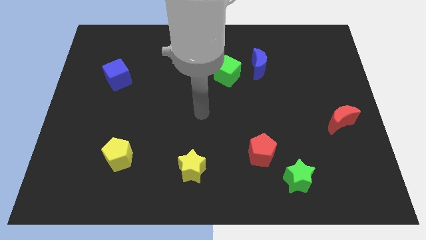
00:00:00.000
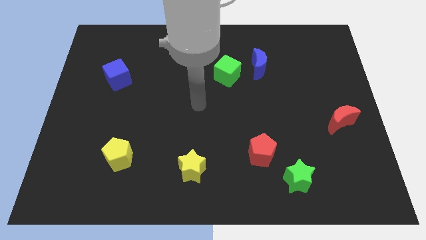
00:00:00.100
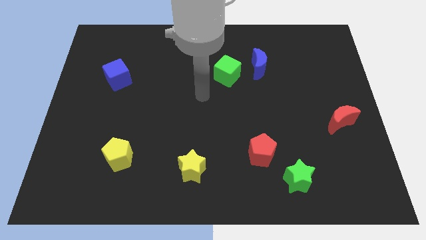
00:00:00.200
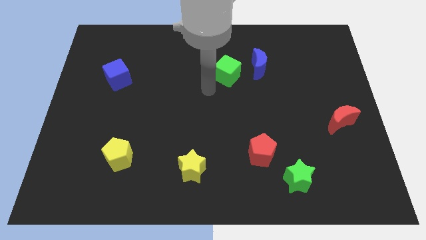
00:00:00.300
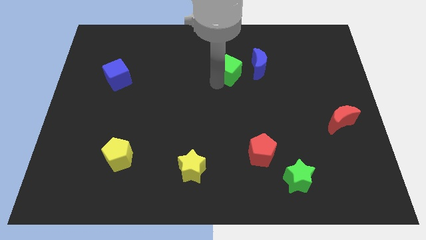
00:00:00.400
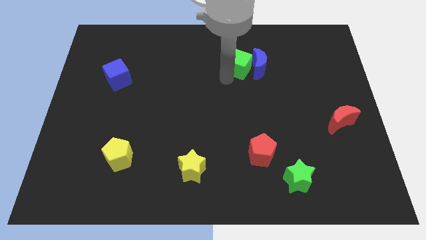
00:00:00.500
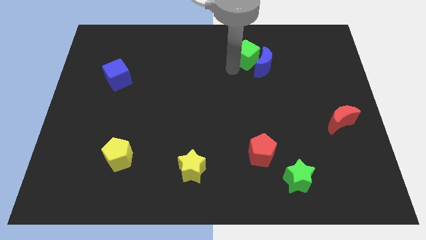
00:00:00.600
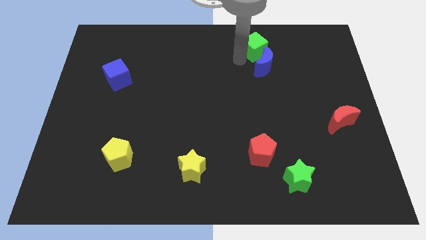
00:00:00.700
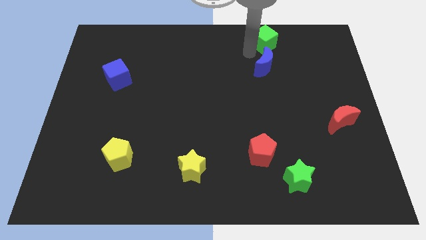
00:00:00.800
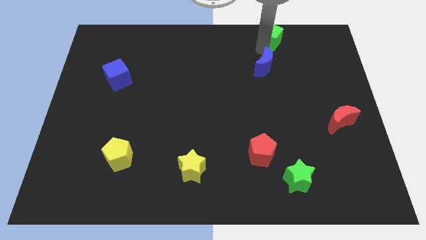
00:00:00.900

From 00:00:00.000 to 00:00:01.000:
move the blue moon away from the green cube

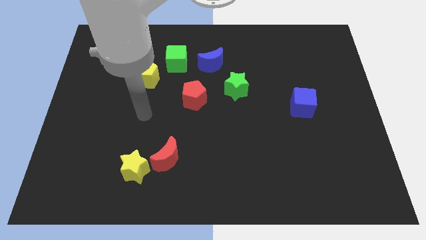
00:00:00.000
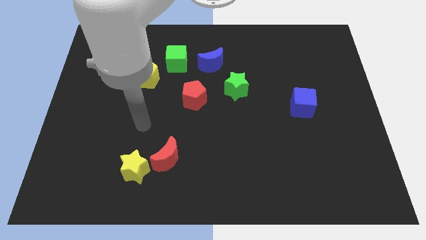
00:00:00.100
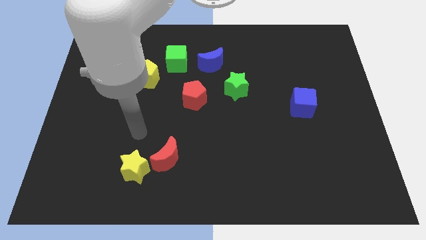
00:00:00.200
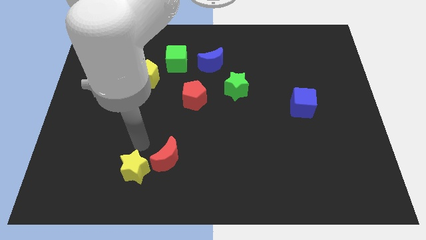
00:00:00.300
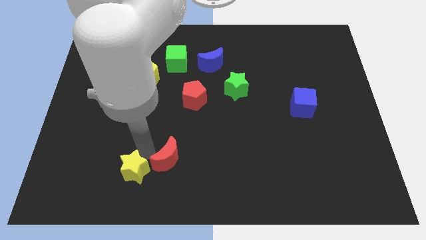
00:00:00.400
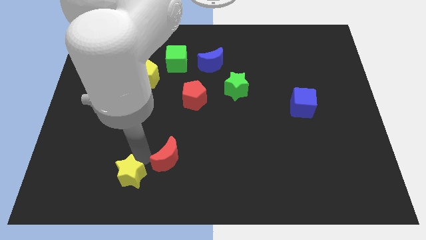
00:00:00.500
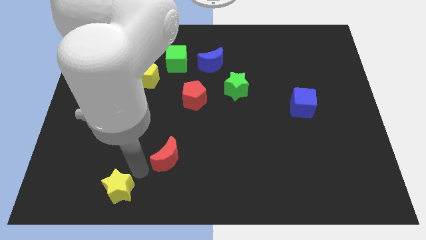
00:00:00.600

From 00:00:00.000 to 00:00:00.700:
pull the red moon apart from the yellow star

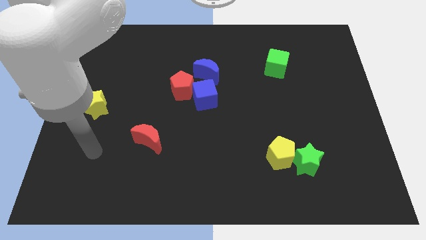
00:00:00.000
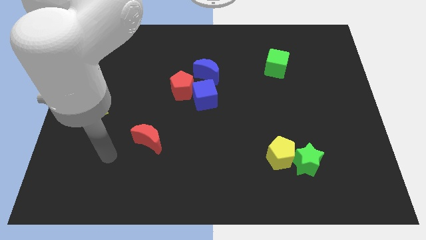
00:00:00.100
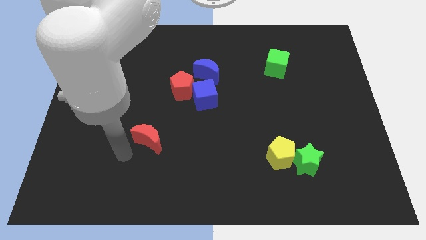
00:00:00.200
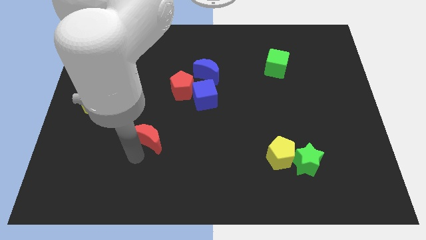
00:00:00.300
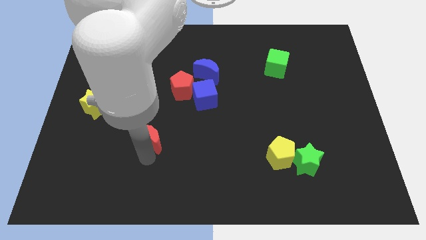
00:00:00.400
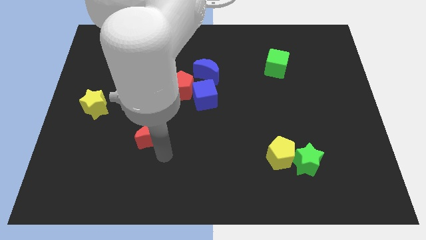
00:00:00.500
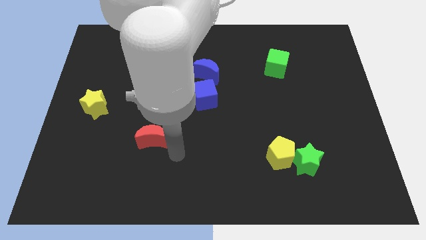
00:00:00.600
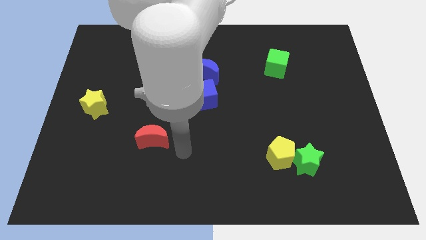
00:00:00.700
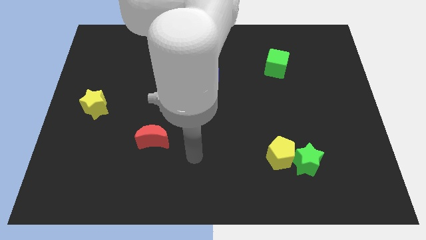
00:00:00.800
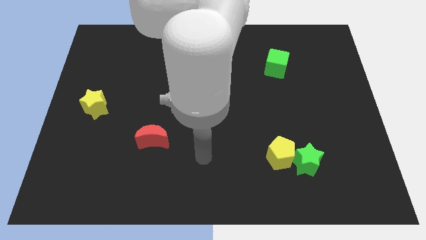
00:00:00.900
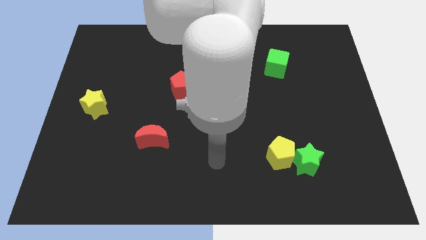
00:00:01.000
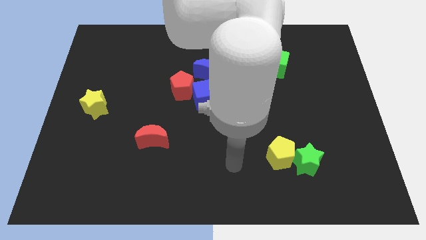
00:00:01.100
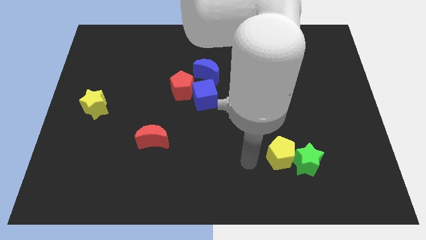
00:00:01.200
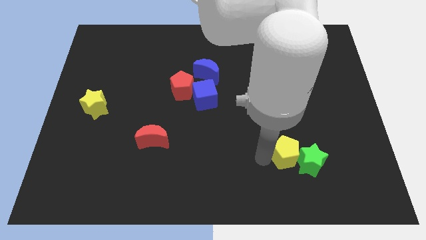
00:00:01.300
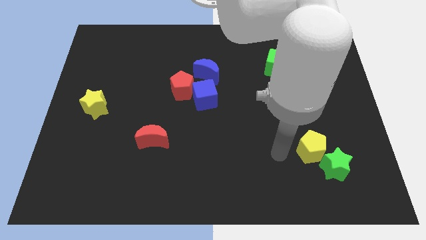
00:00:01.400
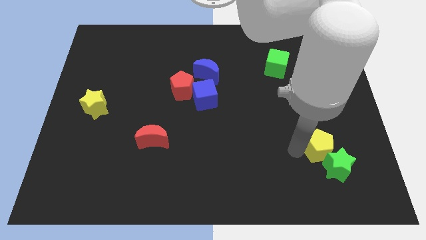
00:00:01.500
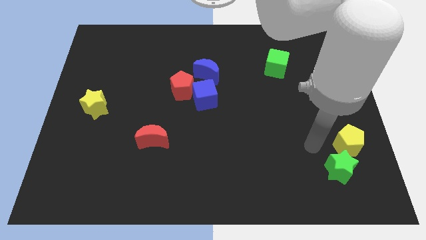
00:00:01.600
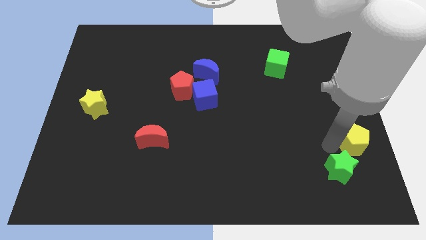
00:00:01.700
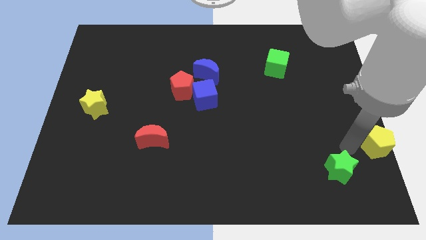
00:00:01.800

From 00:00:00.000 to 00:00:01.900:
move the green star away from the yellow pentagon

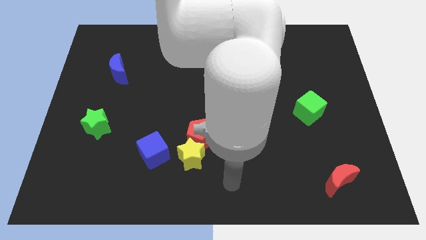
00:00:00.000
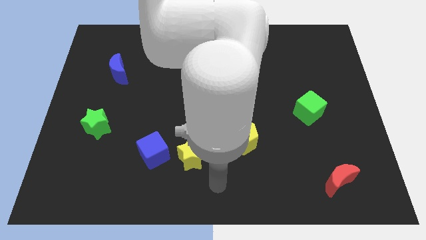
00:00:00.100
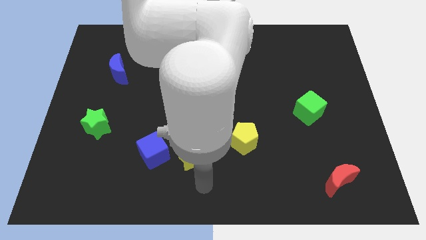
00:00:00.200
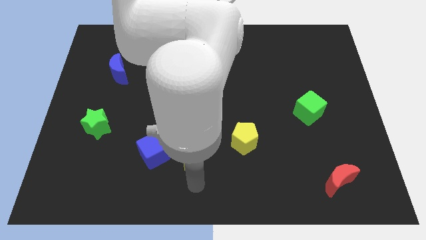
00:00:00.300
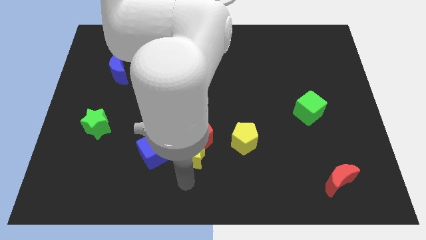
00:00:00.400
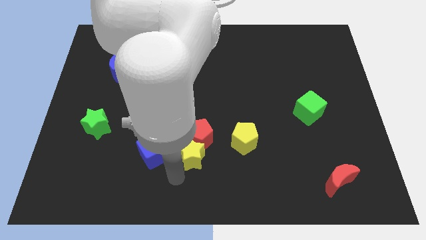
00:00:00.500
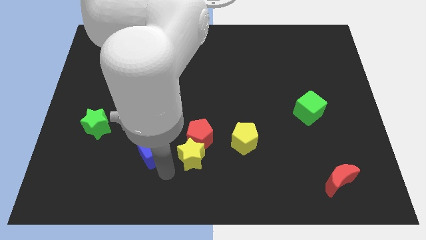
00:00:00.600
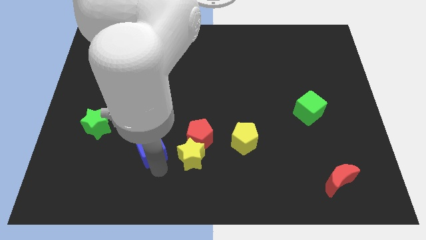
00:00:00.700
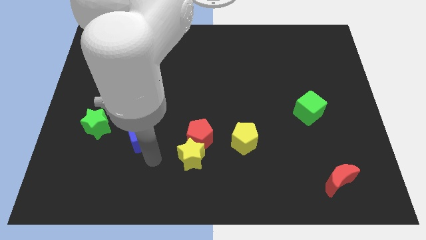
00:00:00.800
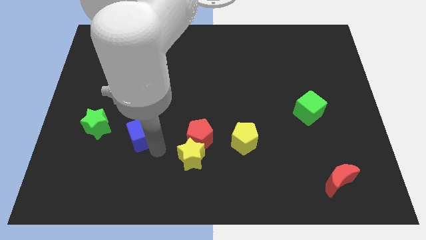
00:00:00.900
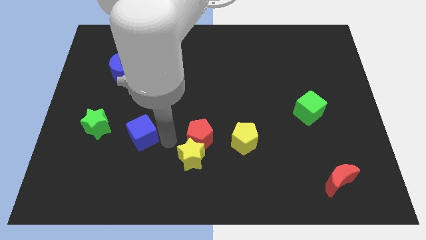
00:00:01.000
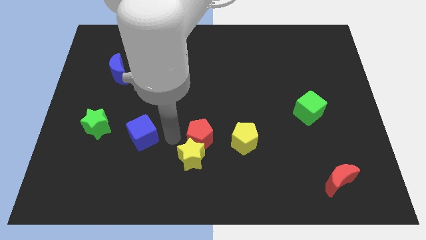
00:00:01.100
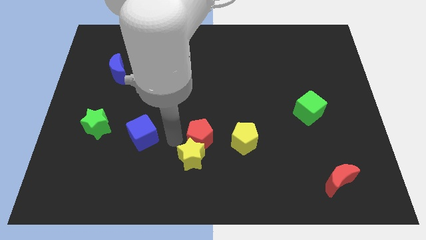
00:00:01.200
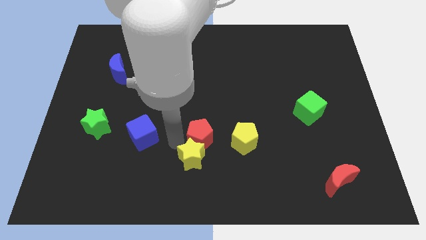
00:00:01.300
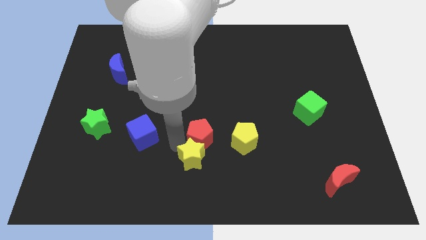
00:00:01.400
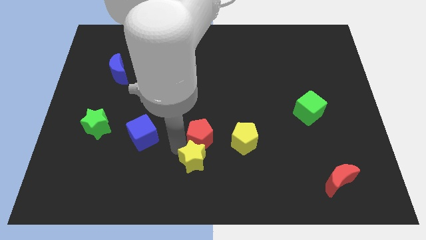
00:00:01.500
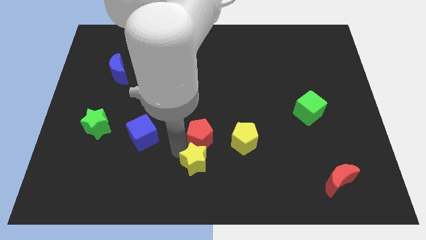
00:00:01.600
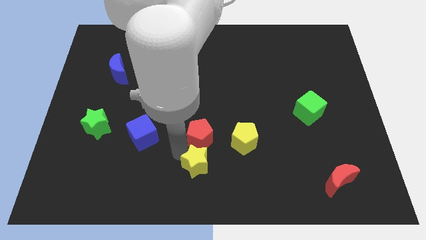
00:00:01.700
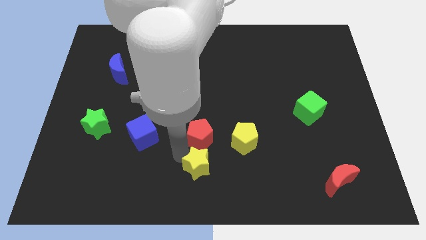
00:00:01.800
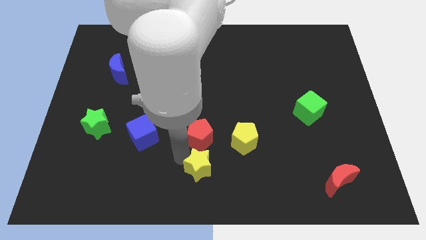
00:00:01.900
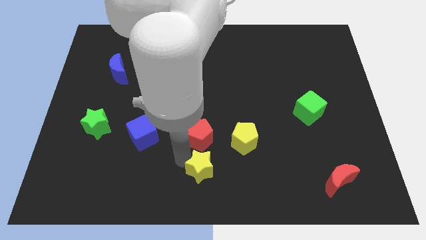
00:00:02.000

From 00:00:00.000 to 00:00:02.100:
separate the yellow star from the red pentagon and blue cube

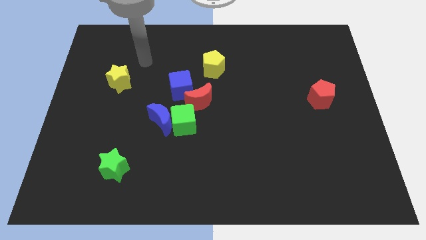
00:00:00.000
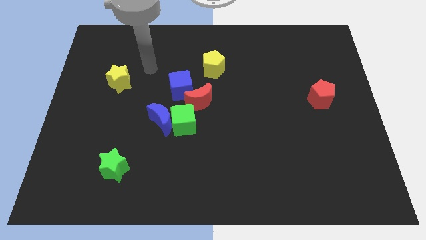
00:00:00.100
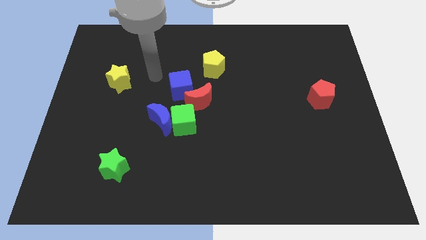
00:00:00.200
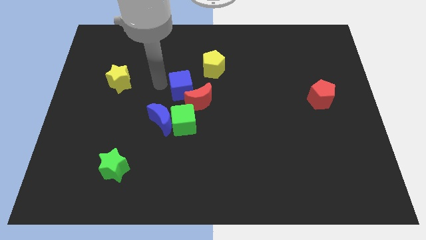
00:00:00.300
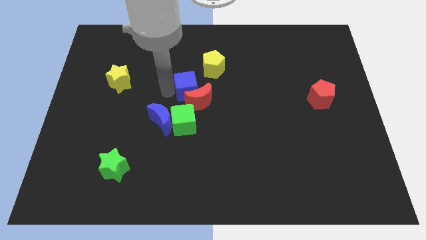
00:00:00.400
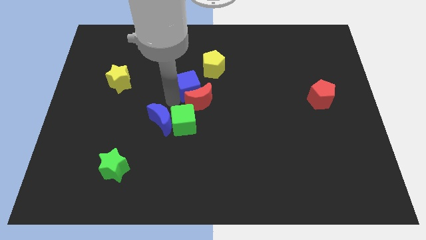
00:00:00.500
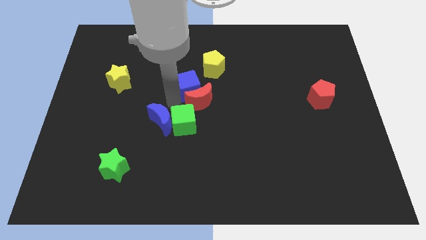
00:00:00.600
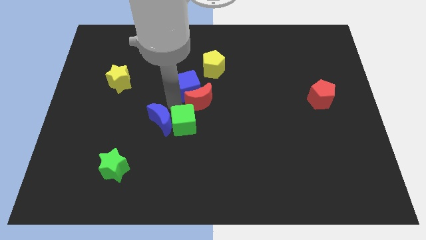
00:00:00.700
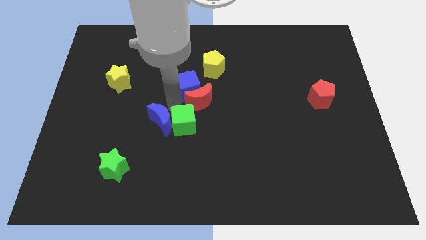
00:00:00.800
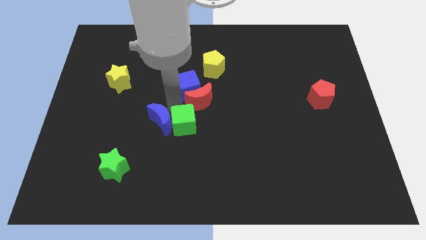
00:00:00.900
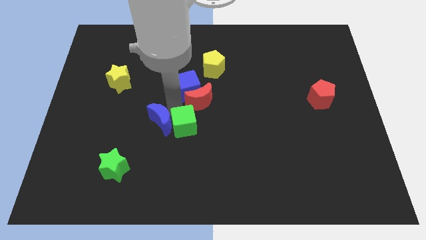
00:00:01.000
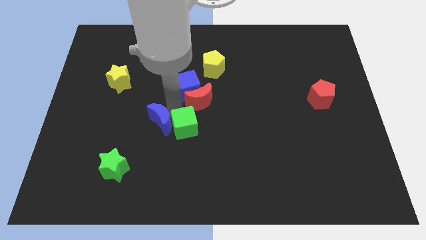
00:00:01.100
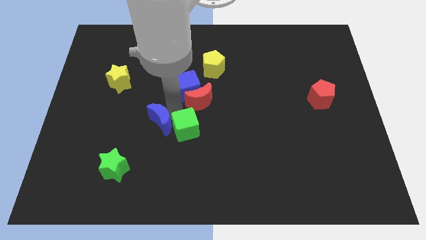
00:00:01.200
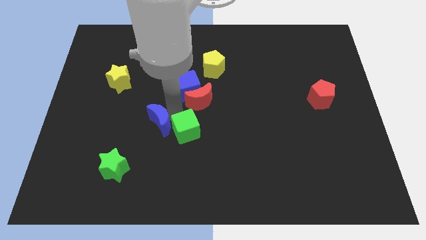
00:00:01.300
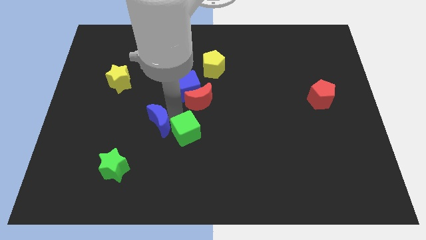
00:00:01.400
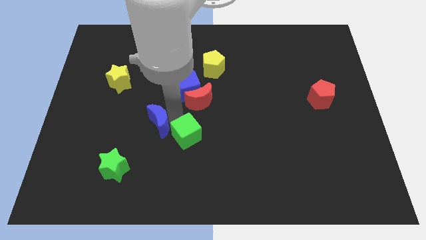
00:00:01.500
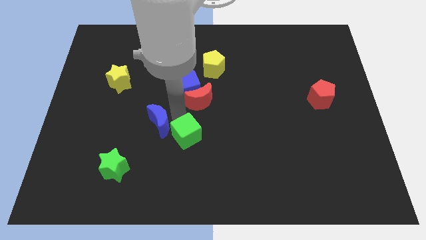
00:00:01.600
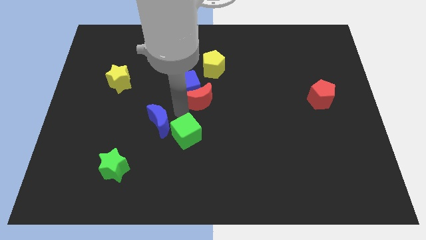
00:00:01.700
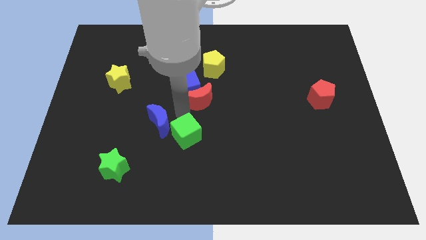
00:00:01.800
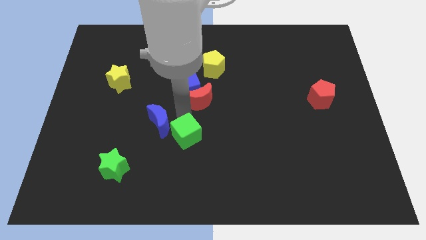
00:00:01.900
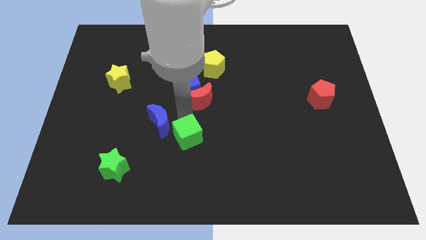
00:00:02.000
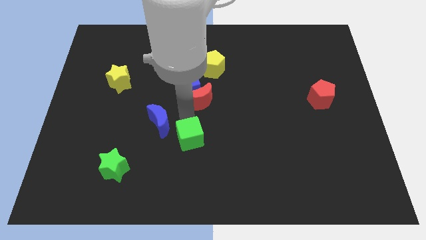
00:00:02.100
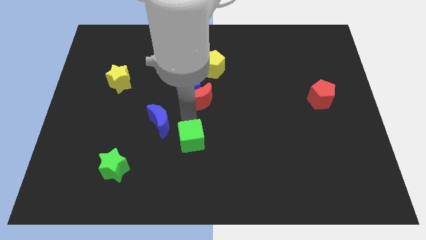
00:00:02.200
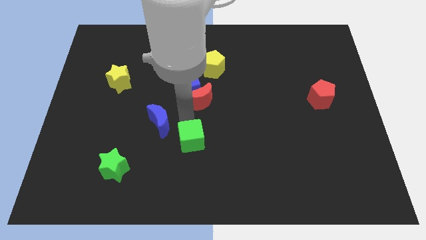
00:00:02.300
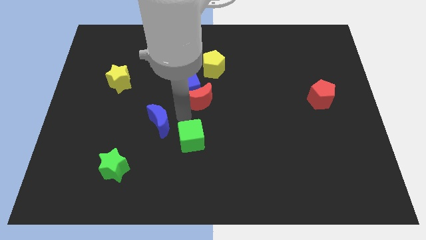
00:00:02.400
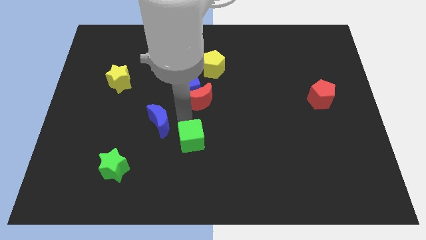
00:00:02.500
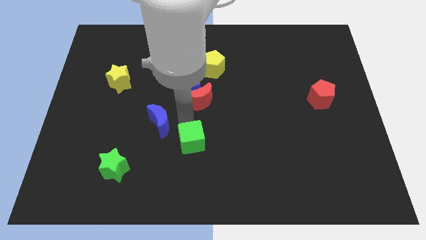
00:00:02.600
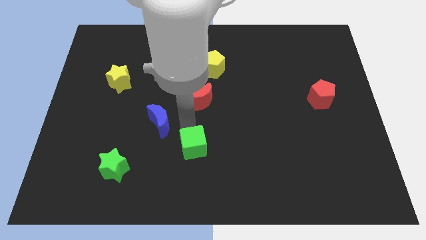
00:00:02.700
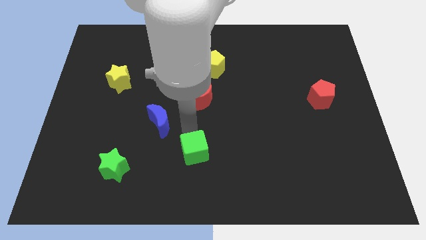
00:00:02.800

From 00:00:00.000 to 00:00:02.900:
move the green cube away from the blue moon and red moon

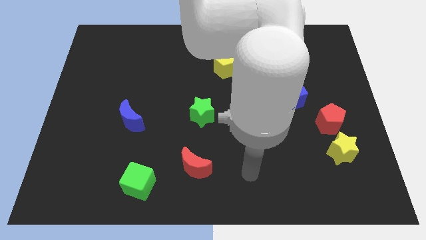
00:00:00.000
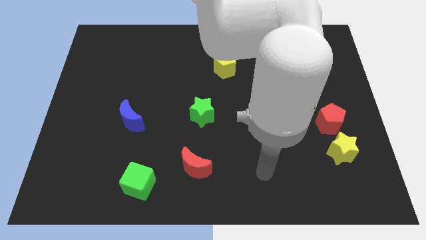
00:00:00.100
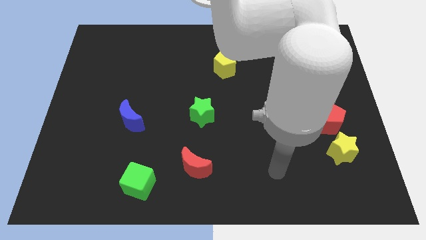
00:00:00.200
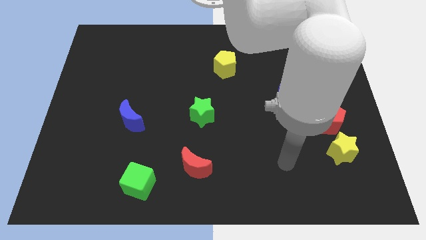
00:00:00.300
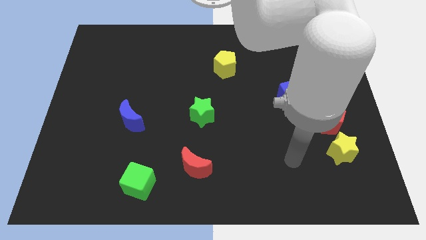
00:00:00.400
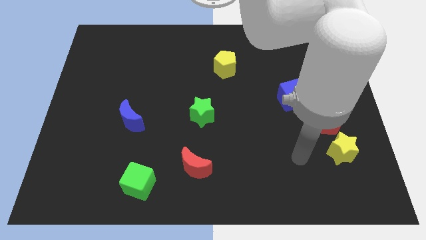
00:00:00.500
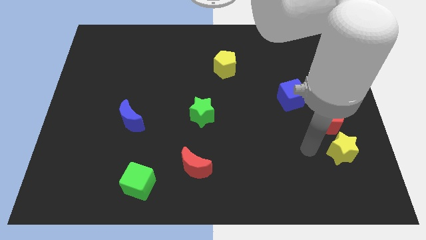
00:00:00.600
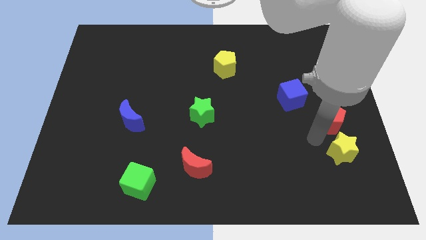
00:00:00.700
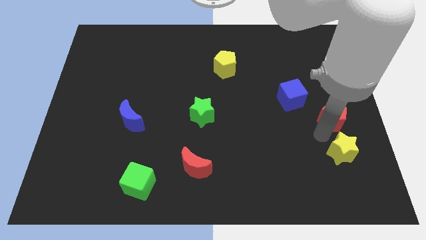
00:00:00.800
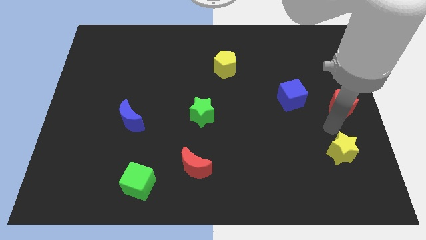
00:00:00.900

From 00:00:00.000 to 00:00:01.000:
pull the yellow star apart from the red pentagon
